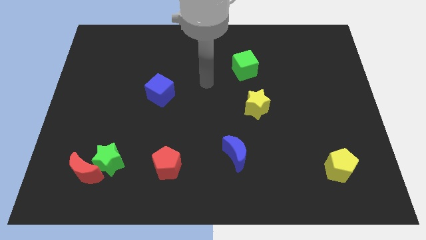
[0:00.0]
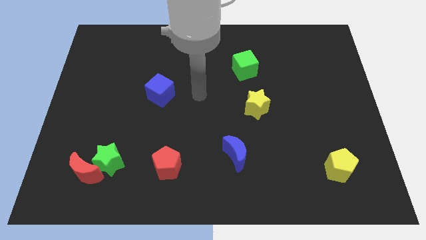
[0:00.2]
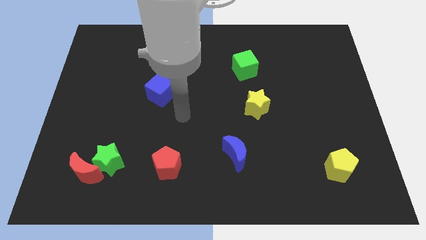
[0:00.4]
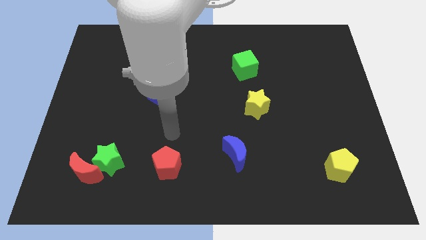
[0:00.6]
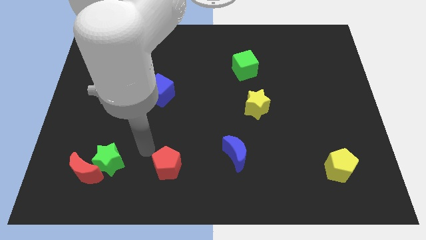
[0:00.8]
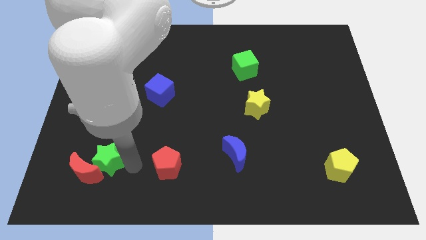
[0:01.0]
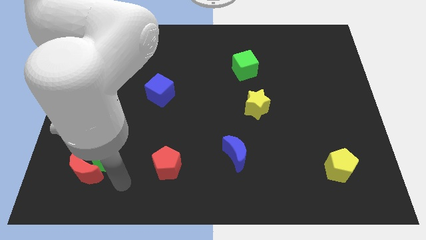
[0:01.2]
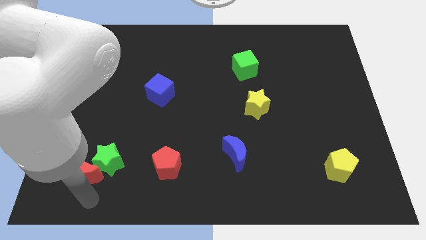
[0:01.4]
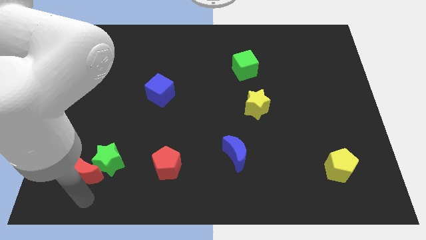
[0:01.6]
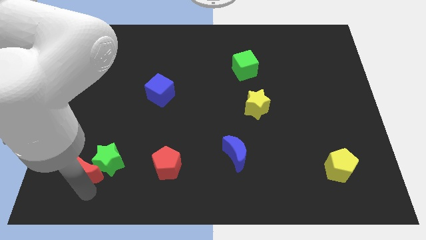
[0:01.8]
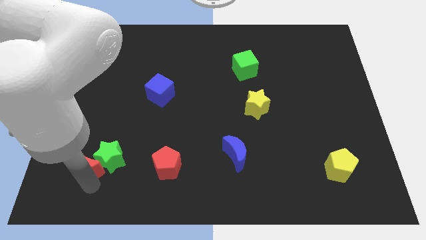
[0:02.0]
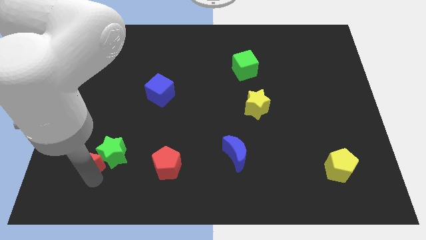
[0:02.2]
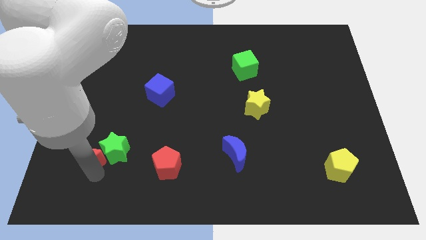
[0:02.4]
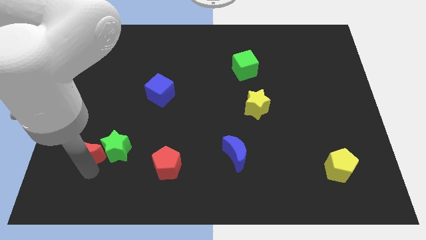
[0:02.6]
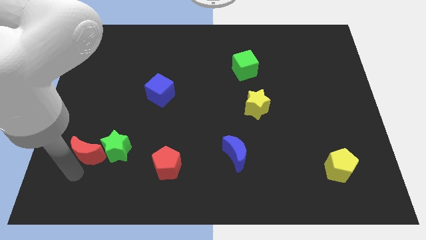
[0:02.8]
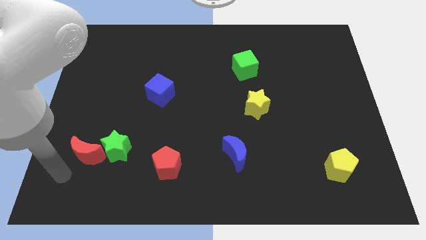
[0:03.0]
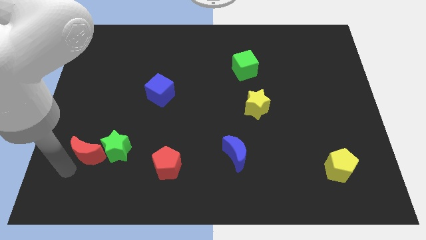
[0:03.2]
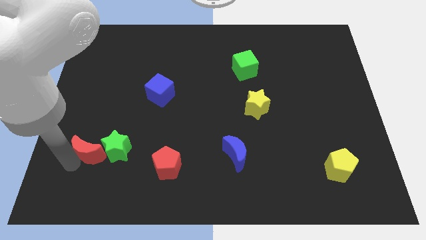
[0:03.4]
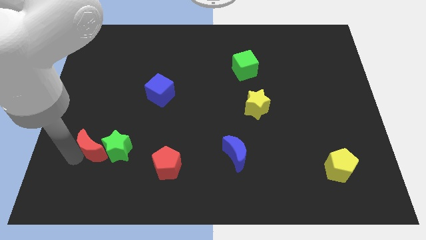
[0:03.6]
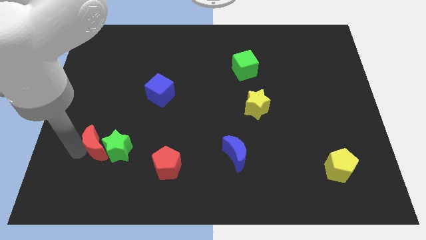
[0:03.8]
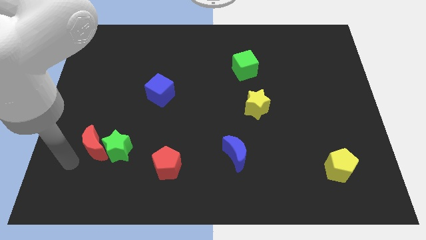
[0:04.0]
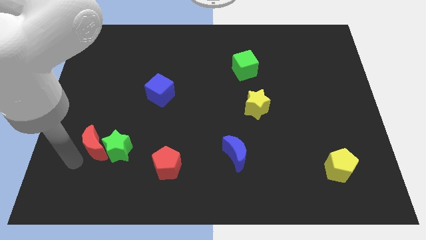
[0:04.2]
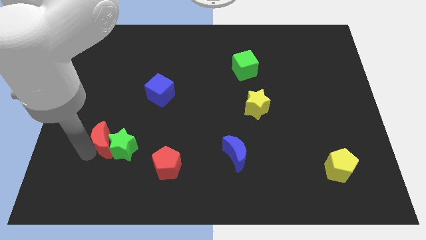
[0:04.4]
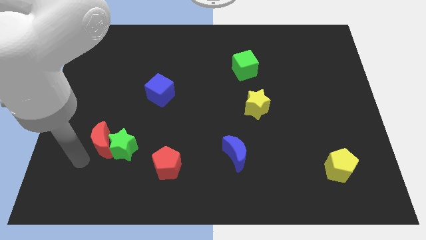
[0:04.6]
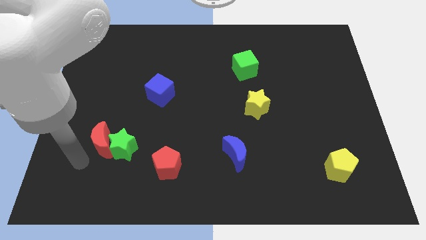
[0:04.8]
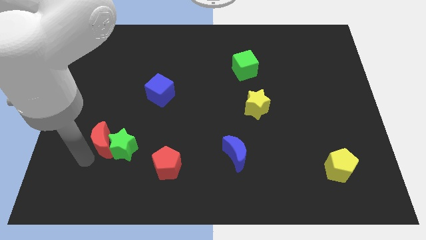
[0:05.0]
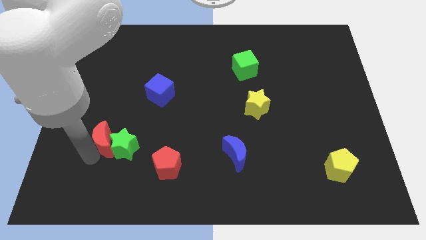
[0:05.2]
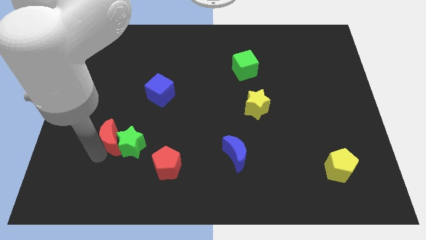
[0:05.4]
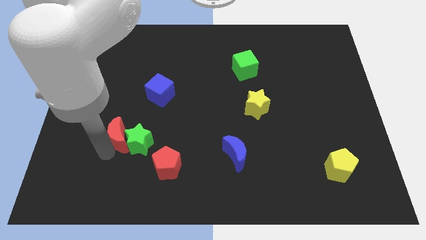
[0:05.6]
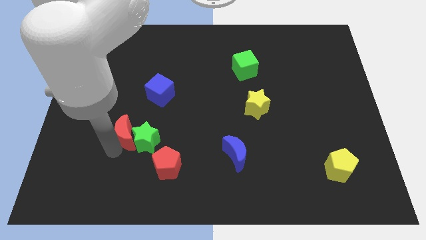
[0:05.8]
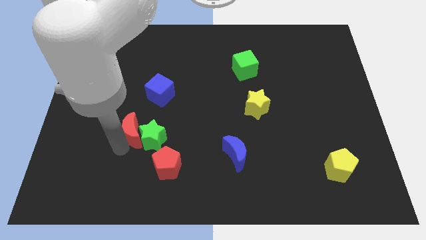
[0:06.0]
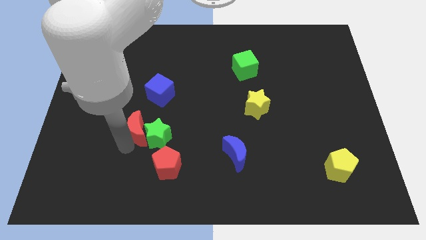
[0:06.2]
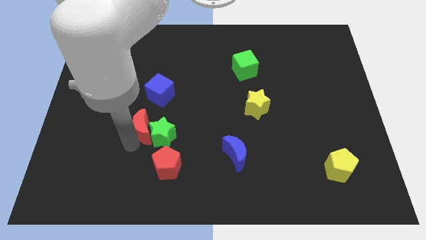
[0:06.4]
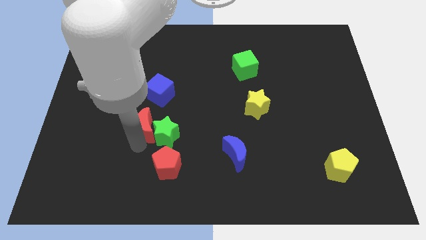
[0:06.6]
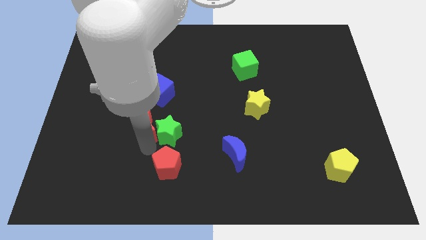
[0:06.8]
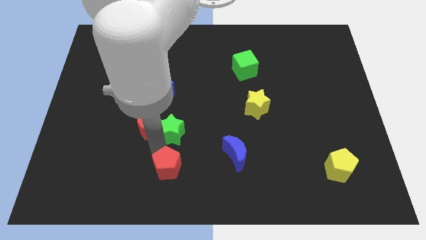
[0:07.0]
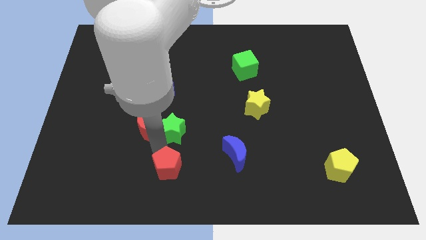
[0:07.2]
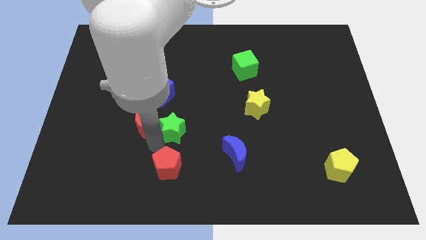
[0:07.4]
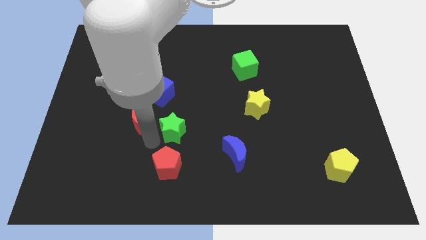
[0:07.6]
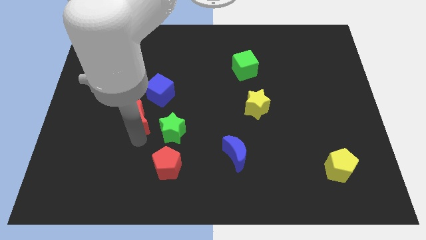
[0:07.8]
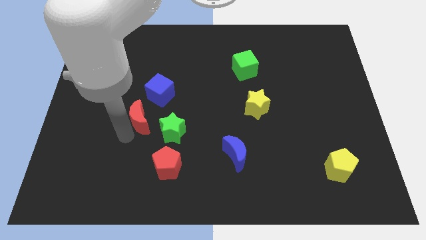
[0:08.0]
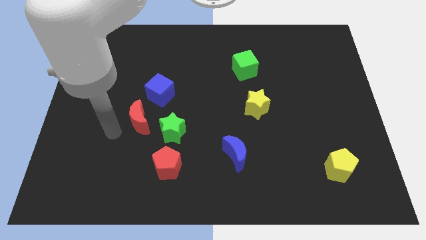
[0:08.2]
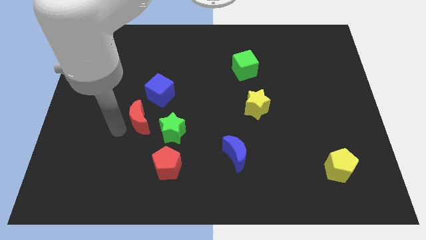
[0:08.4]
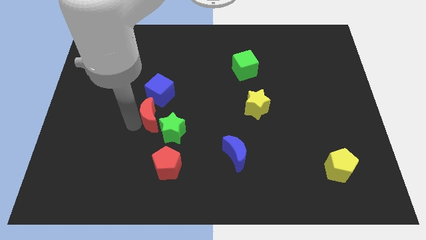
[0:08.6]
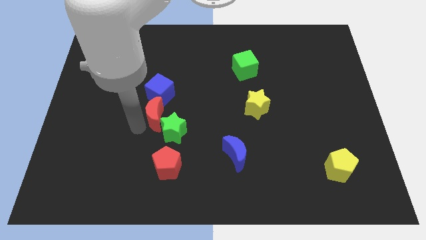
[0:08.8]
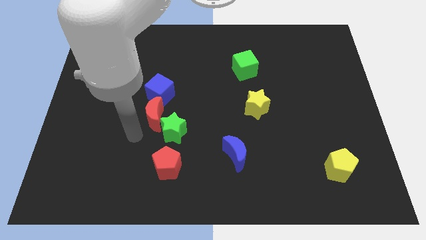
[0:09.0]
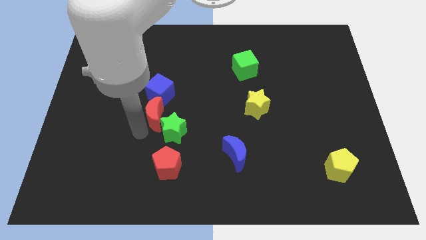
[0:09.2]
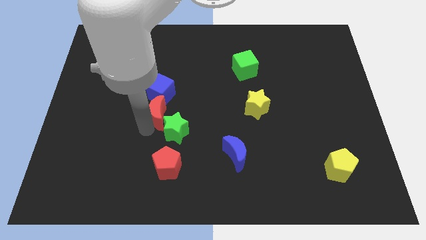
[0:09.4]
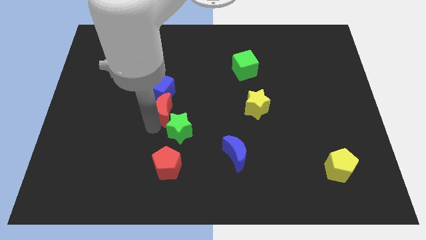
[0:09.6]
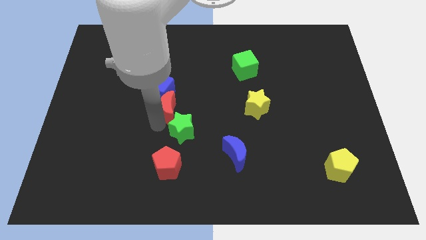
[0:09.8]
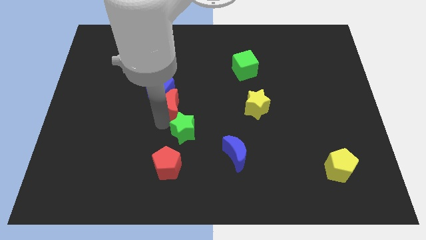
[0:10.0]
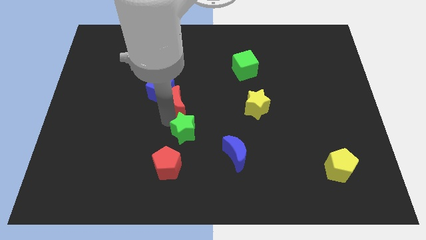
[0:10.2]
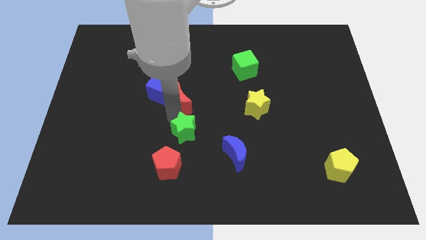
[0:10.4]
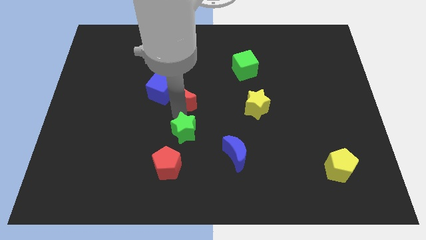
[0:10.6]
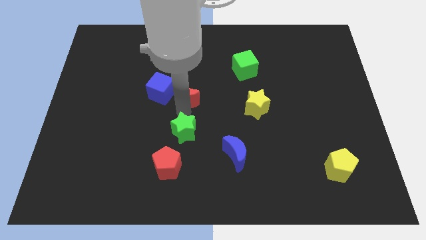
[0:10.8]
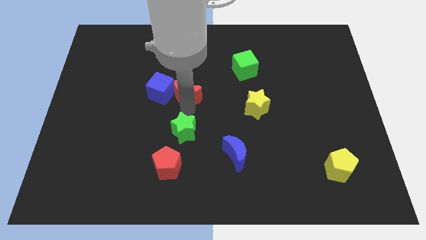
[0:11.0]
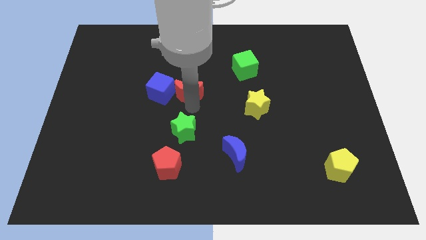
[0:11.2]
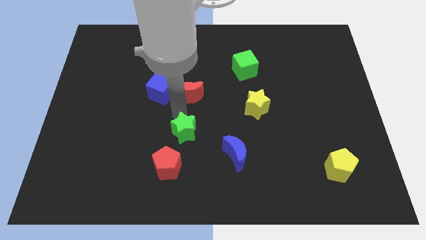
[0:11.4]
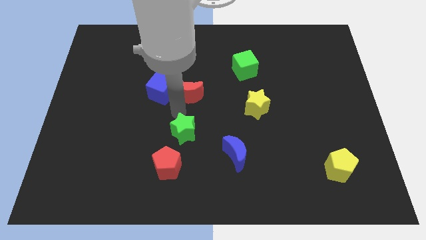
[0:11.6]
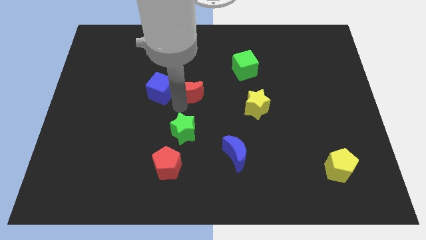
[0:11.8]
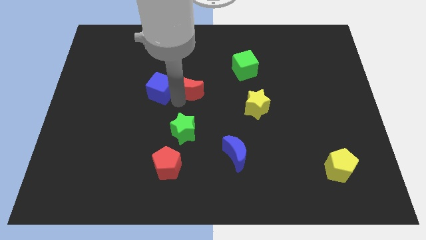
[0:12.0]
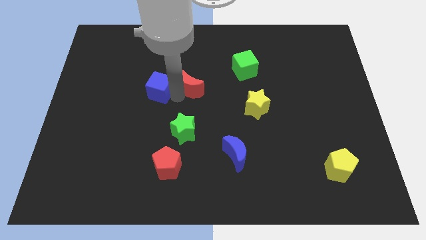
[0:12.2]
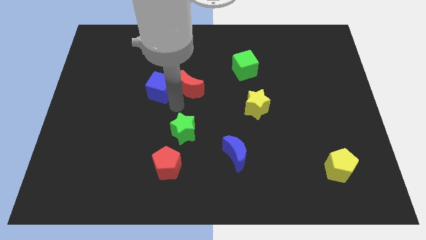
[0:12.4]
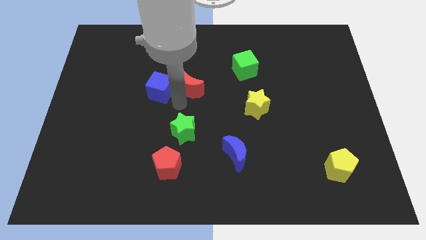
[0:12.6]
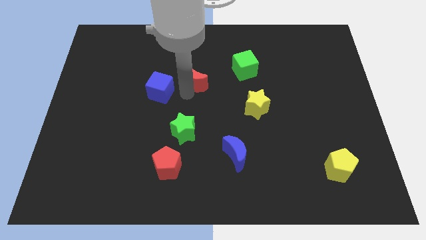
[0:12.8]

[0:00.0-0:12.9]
put the red moon left of the green cube

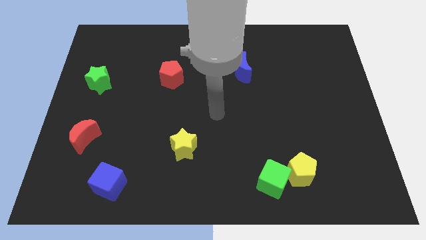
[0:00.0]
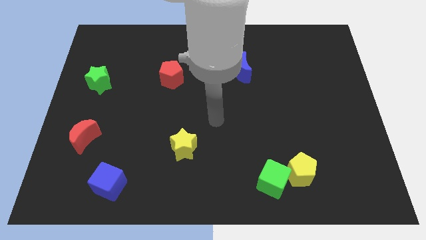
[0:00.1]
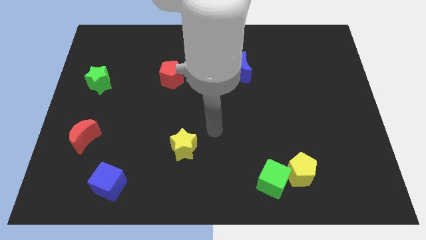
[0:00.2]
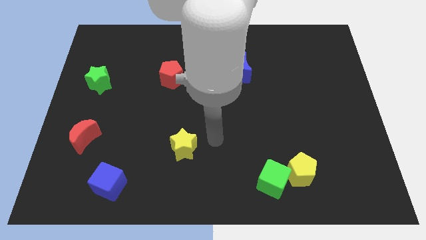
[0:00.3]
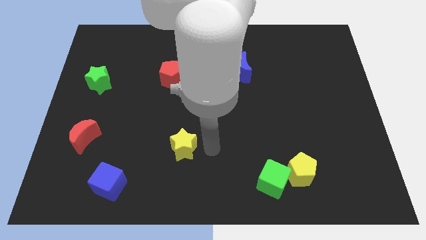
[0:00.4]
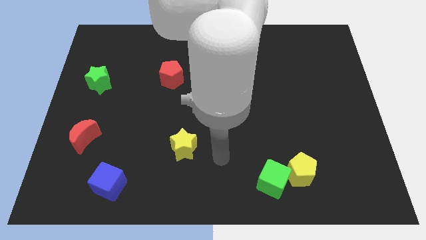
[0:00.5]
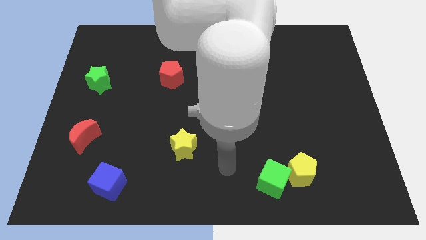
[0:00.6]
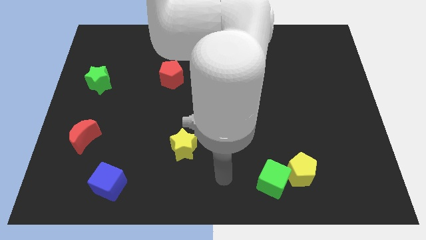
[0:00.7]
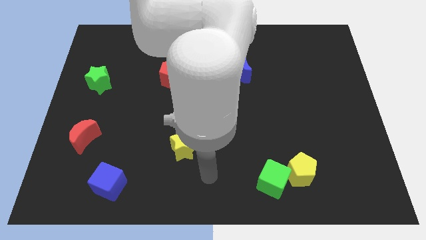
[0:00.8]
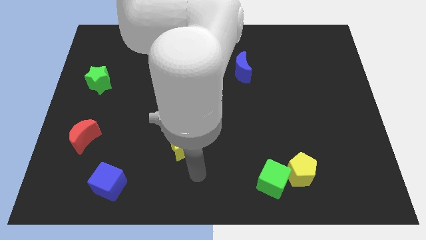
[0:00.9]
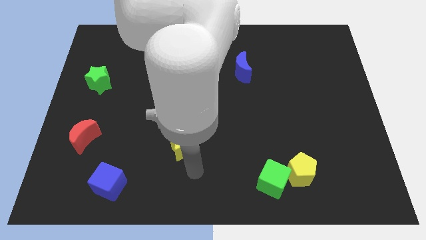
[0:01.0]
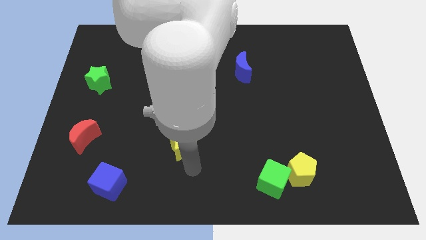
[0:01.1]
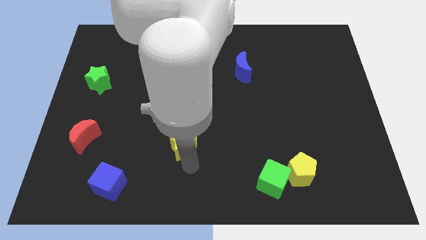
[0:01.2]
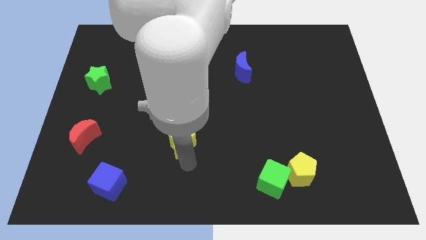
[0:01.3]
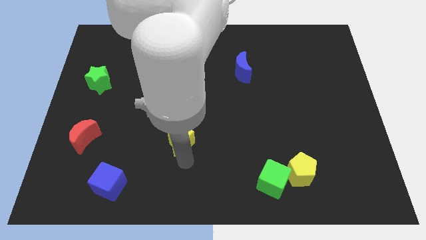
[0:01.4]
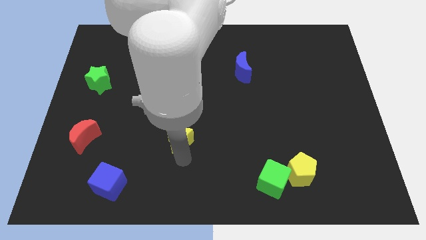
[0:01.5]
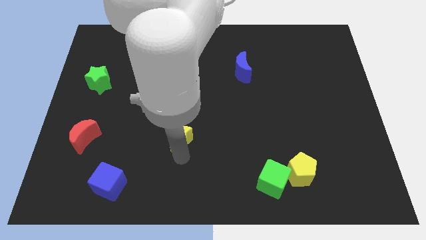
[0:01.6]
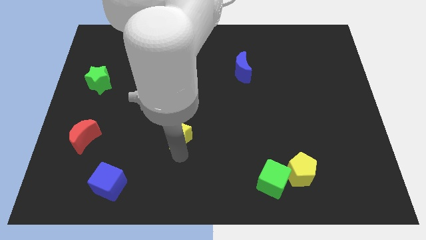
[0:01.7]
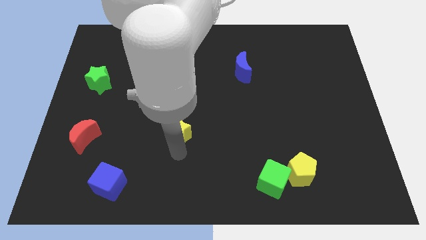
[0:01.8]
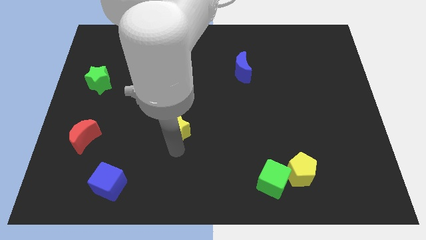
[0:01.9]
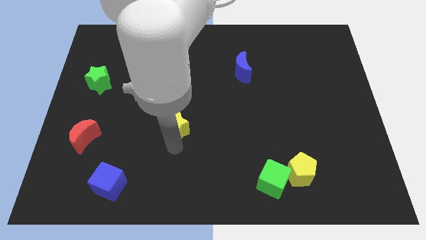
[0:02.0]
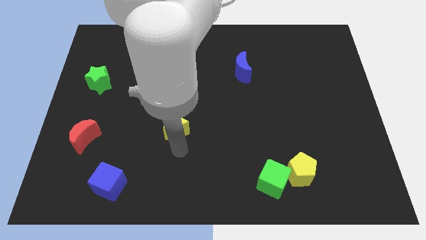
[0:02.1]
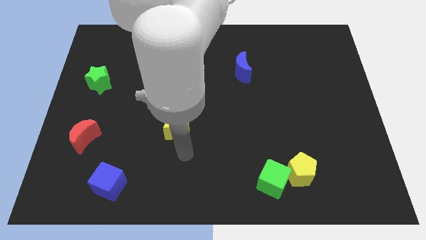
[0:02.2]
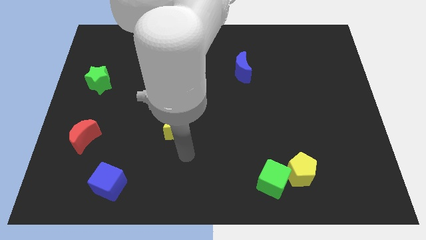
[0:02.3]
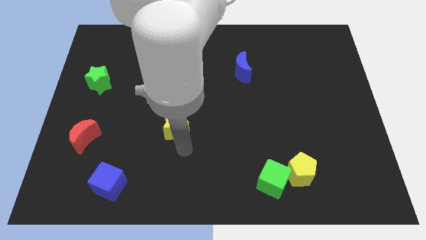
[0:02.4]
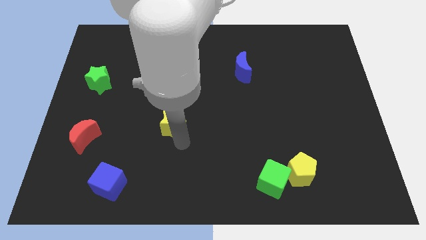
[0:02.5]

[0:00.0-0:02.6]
slide the yellow star below the red pentagon
